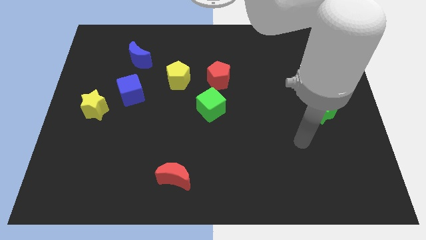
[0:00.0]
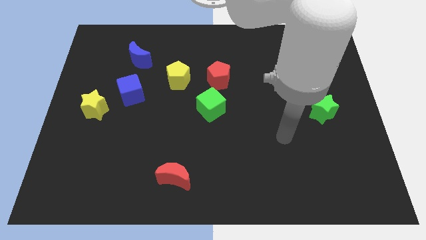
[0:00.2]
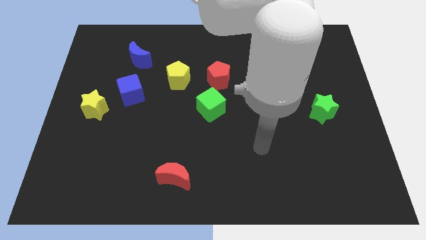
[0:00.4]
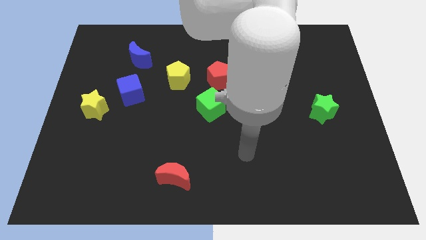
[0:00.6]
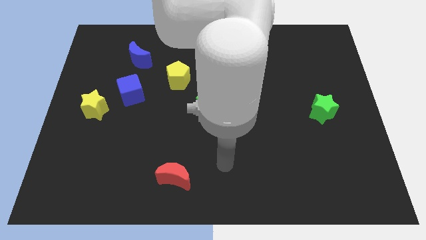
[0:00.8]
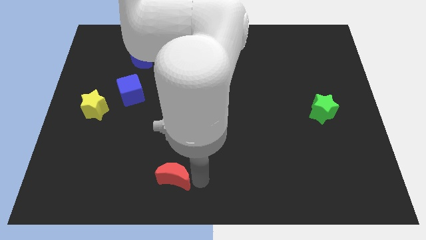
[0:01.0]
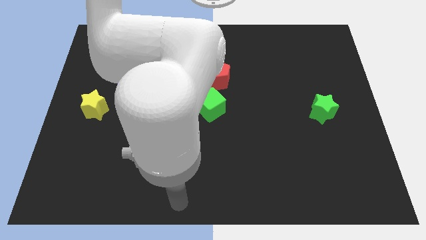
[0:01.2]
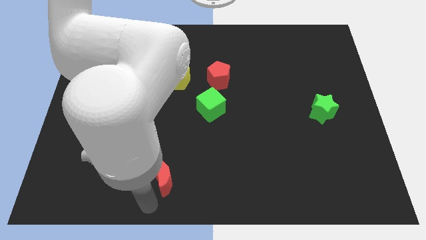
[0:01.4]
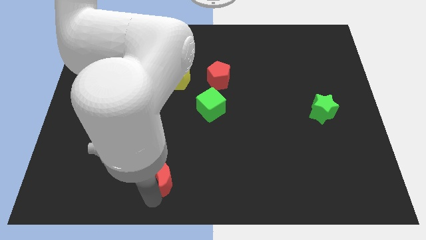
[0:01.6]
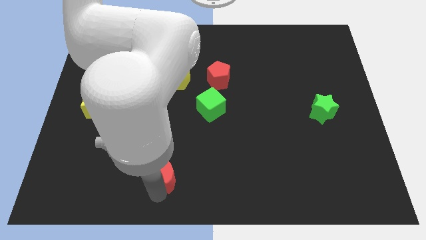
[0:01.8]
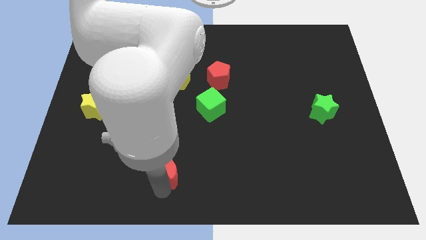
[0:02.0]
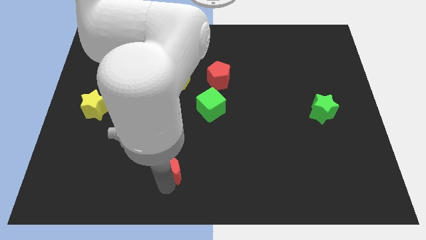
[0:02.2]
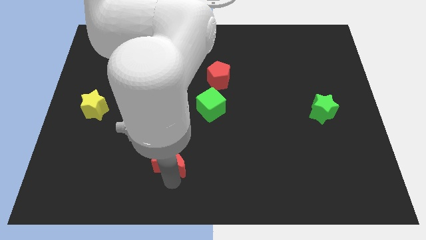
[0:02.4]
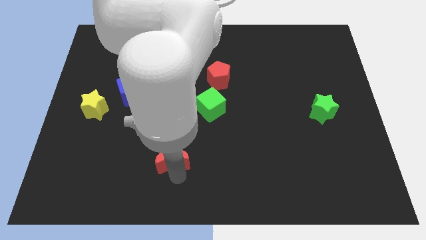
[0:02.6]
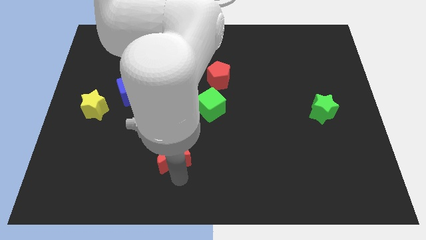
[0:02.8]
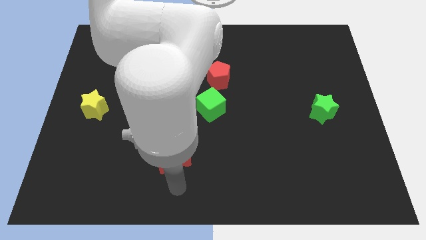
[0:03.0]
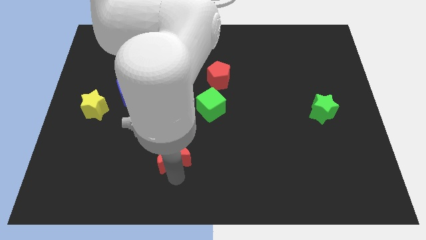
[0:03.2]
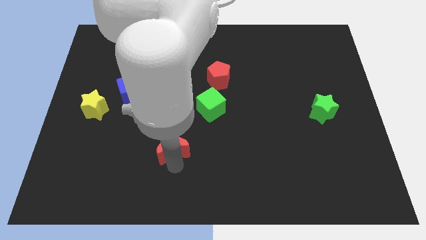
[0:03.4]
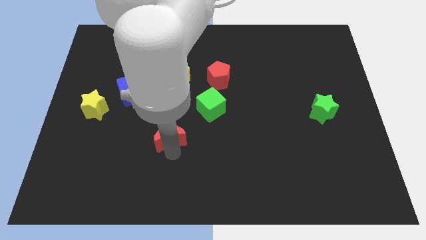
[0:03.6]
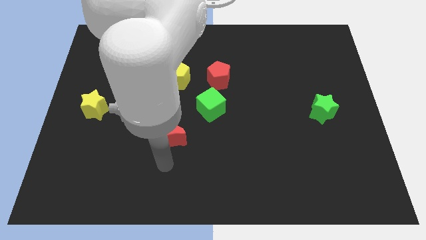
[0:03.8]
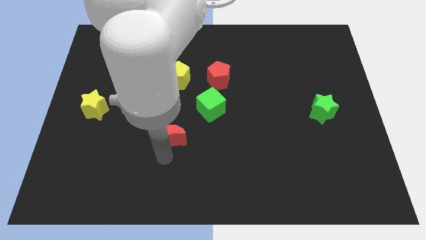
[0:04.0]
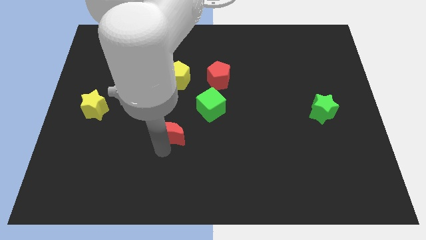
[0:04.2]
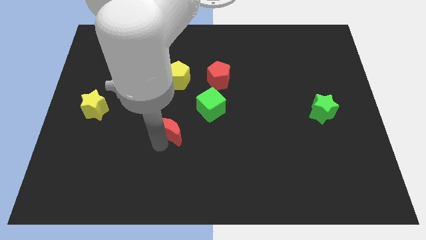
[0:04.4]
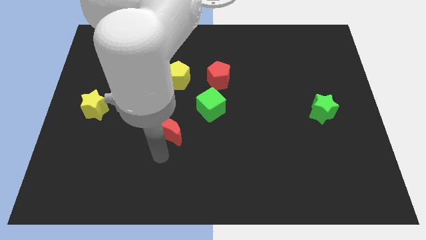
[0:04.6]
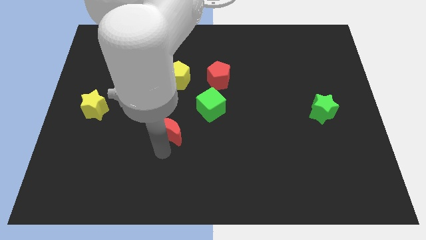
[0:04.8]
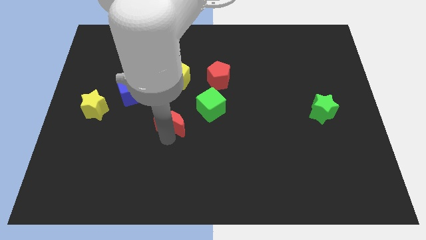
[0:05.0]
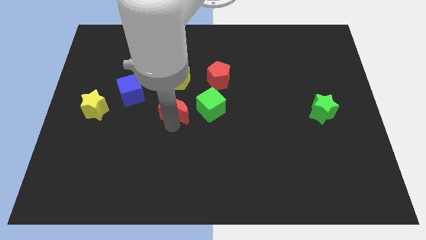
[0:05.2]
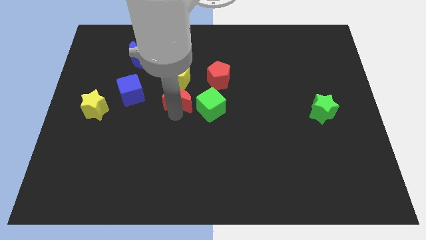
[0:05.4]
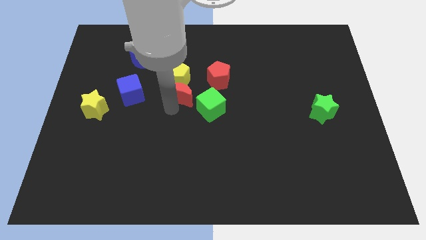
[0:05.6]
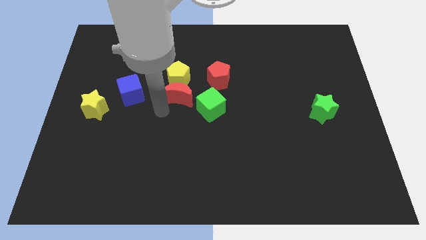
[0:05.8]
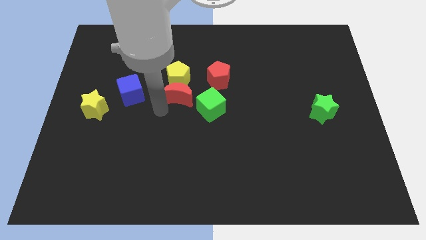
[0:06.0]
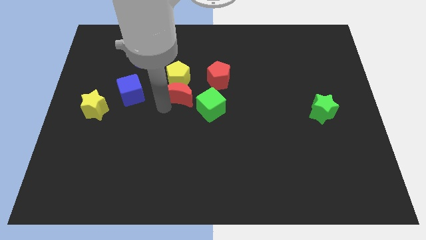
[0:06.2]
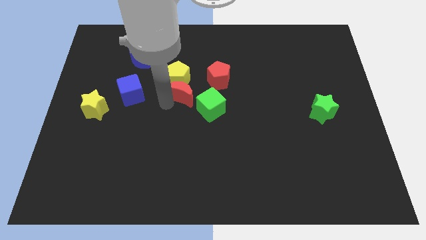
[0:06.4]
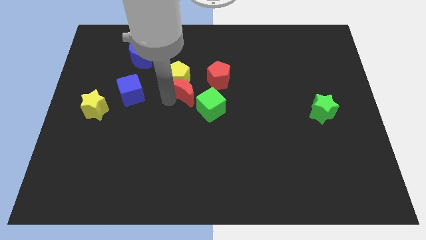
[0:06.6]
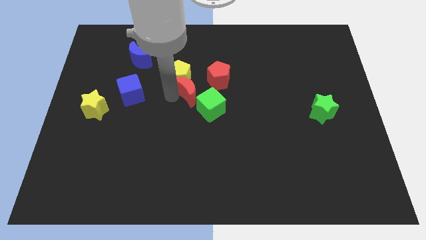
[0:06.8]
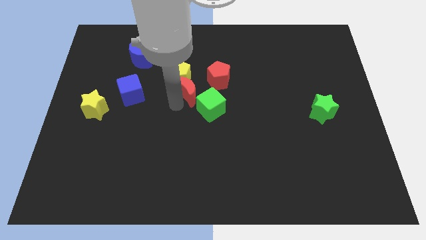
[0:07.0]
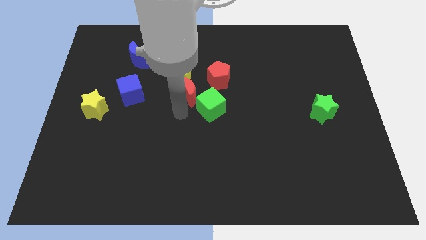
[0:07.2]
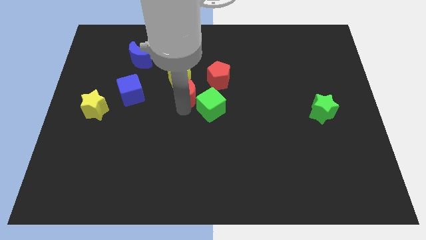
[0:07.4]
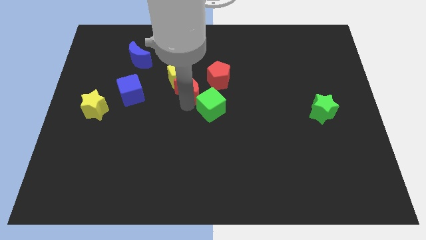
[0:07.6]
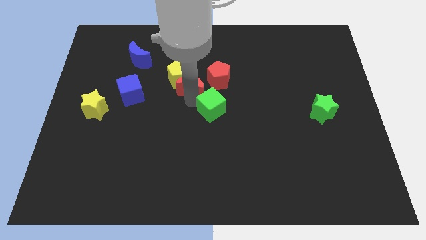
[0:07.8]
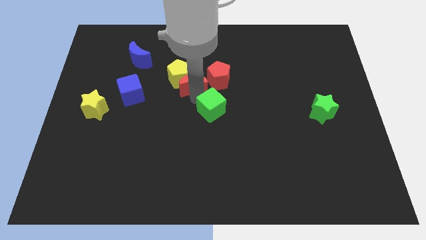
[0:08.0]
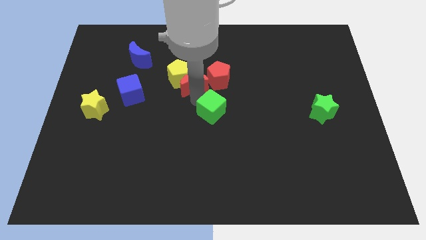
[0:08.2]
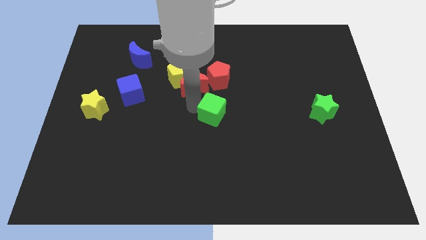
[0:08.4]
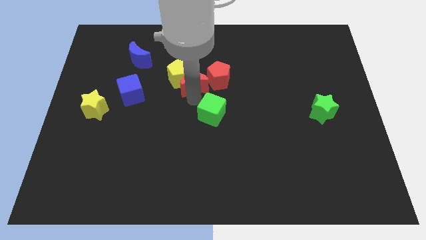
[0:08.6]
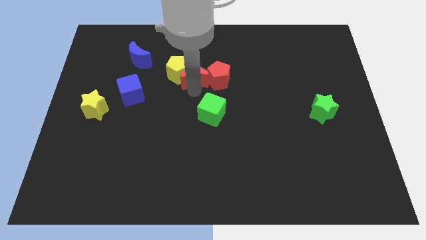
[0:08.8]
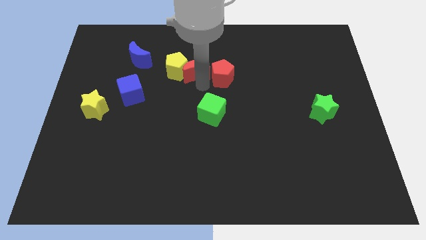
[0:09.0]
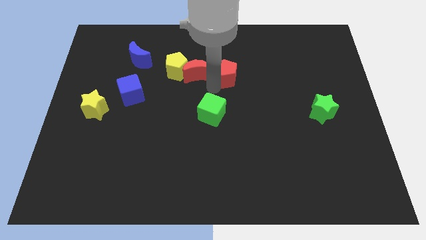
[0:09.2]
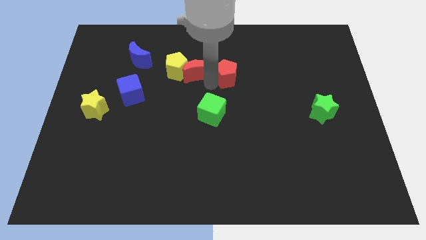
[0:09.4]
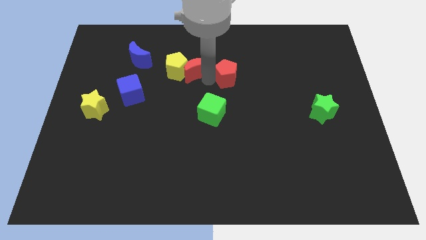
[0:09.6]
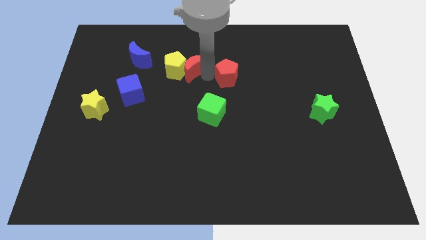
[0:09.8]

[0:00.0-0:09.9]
put the red moon right of the blue moon

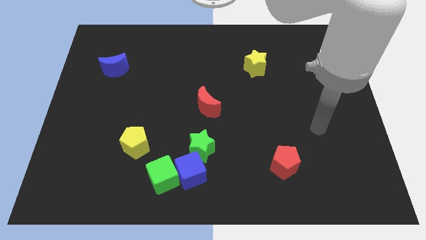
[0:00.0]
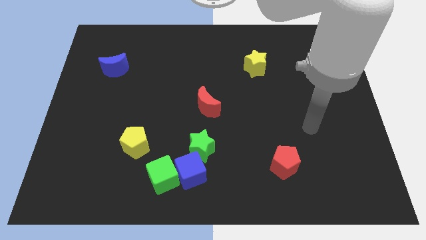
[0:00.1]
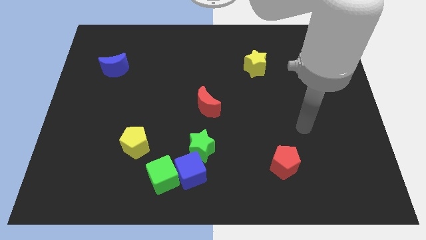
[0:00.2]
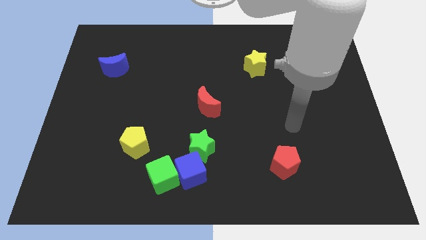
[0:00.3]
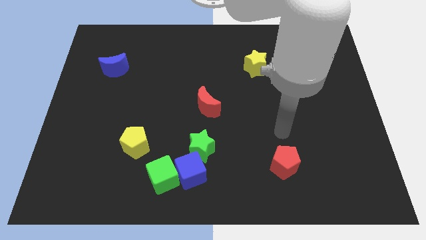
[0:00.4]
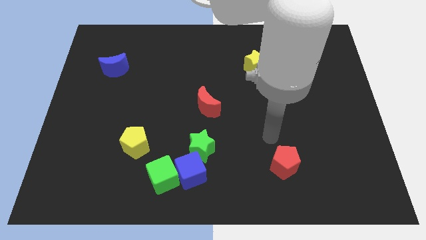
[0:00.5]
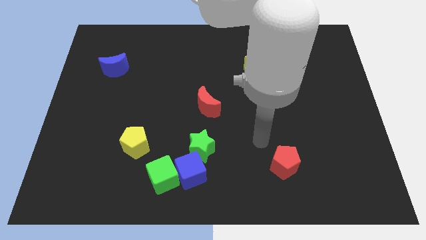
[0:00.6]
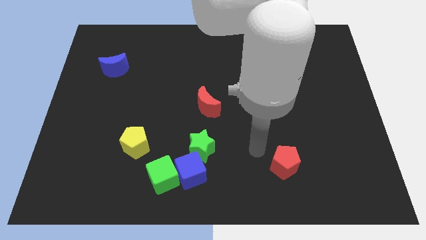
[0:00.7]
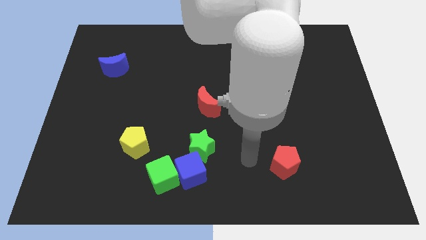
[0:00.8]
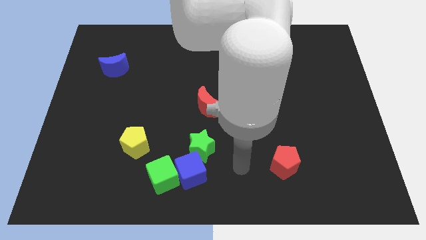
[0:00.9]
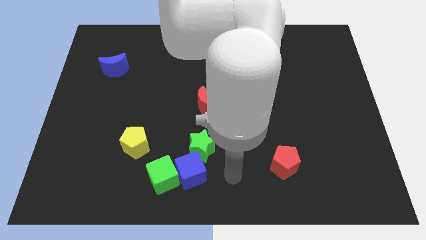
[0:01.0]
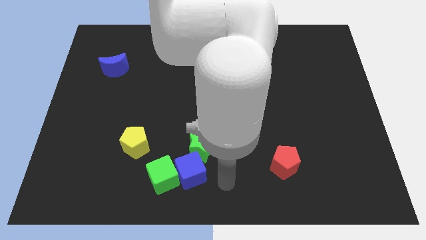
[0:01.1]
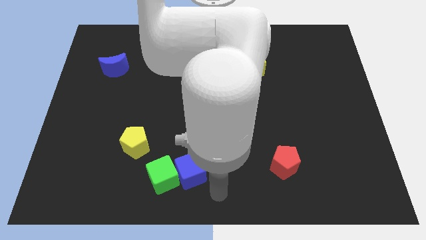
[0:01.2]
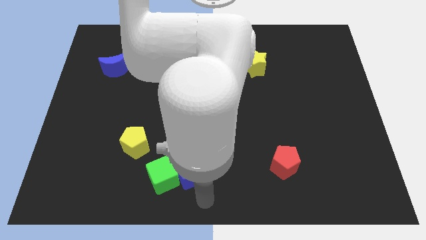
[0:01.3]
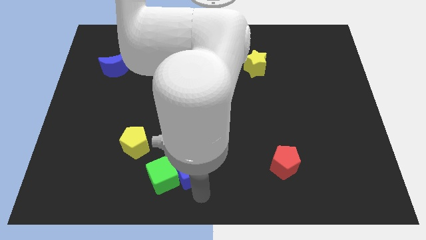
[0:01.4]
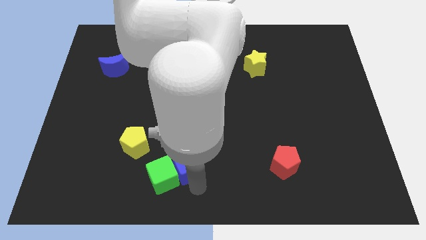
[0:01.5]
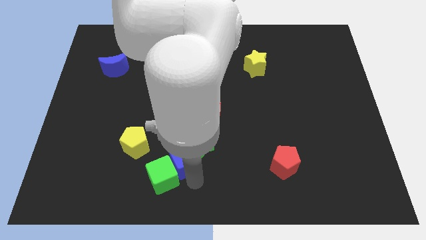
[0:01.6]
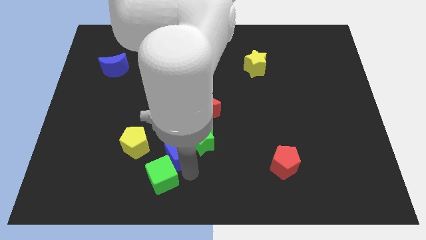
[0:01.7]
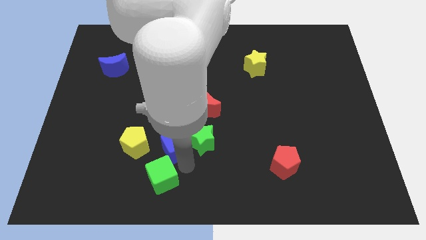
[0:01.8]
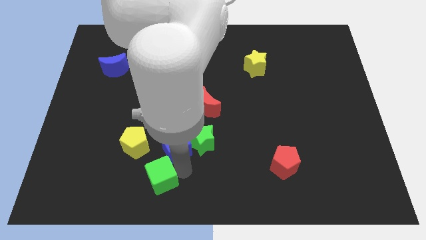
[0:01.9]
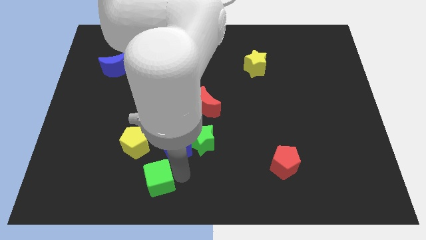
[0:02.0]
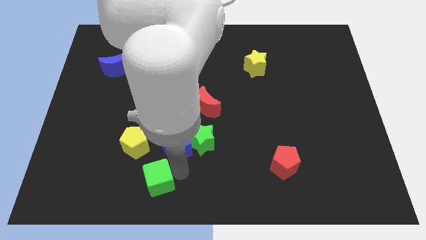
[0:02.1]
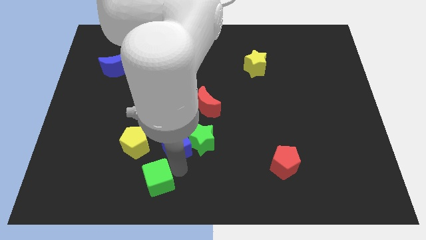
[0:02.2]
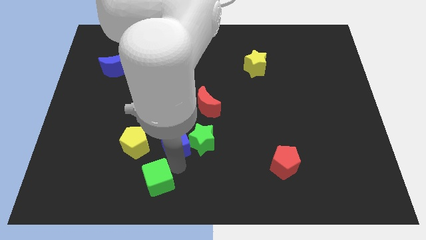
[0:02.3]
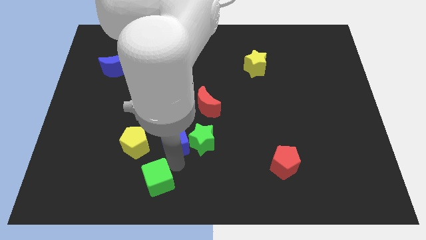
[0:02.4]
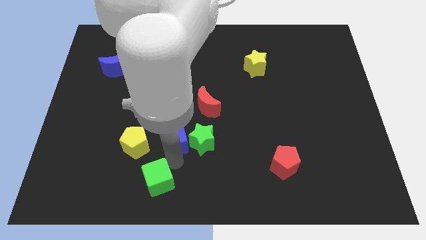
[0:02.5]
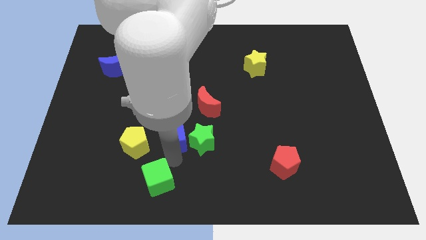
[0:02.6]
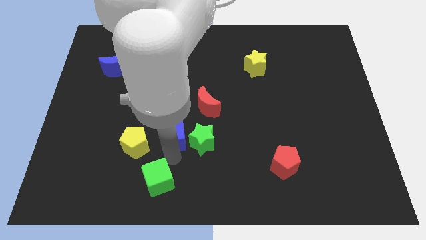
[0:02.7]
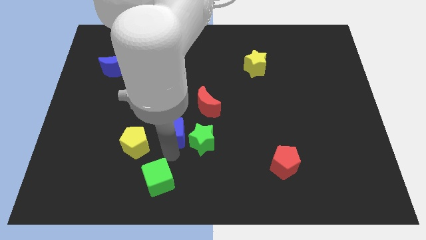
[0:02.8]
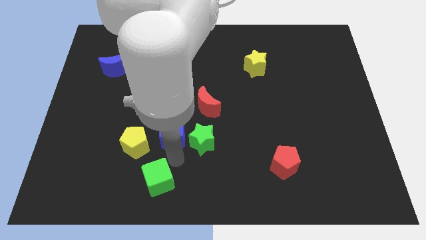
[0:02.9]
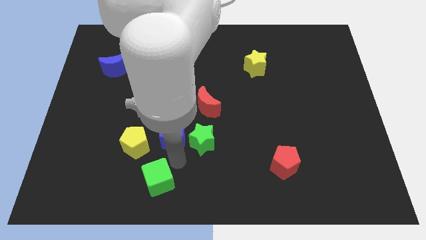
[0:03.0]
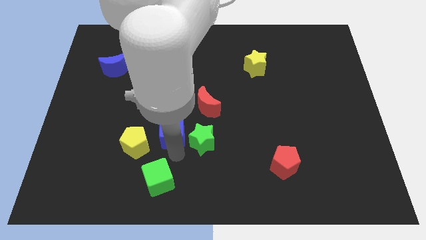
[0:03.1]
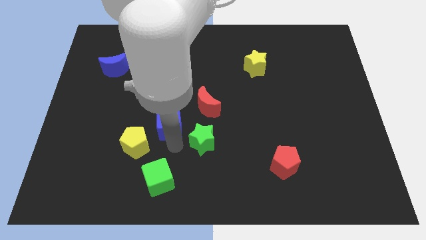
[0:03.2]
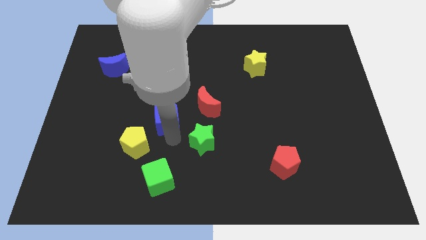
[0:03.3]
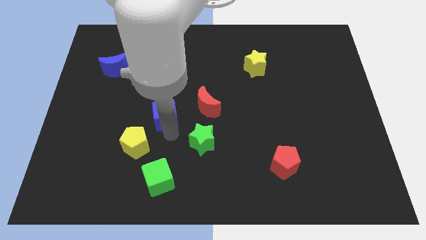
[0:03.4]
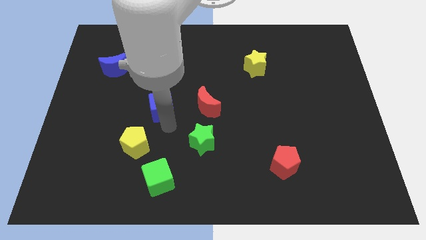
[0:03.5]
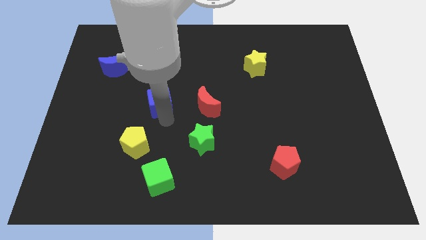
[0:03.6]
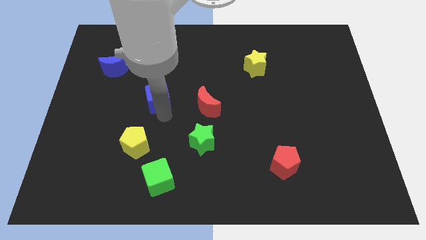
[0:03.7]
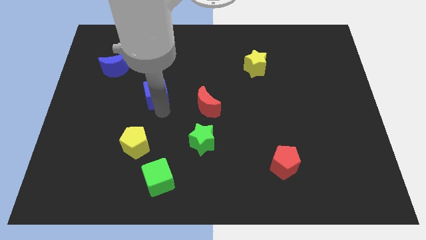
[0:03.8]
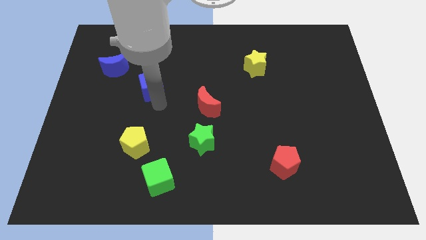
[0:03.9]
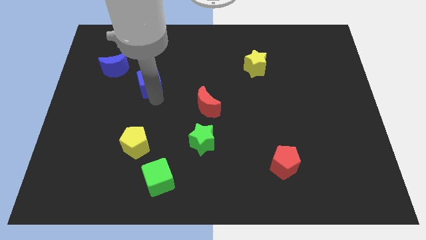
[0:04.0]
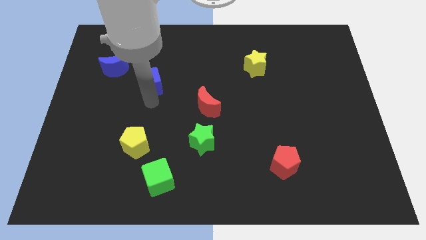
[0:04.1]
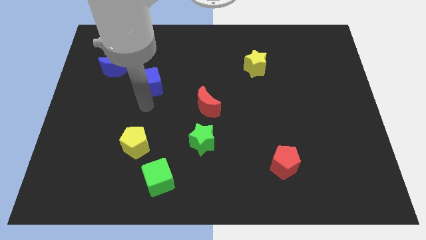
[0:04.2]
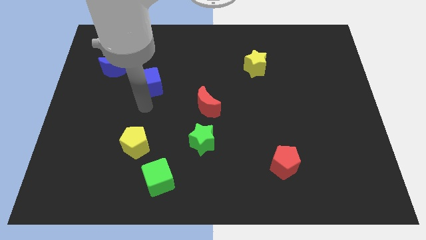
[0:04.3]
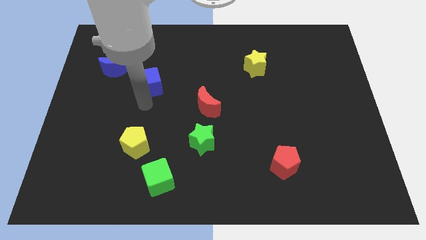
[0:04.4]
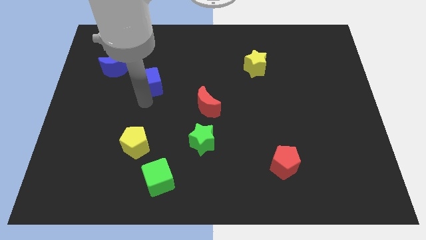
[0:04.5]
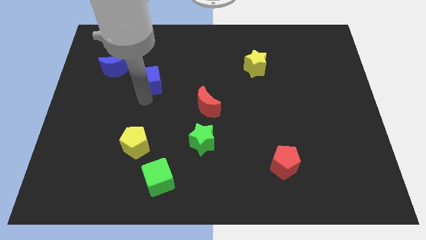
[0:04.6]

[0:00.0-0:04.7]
move the blue cube just right of the blue moon
